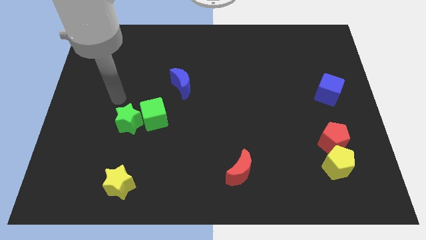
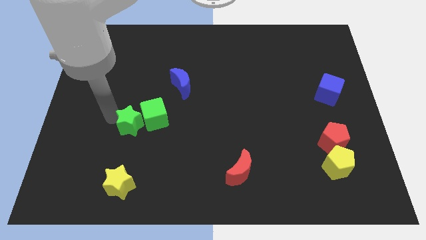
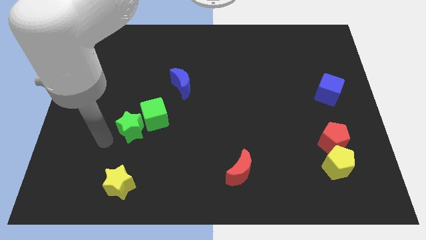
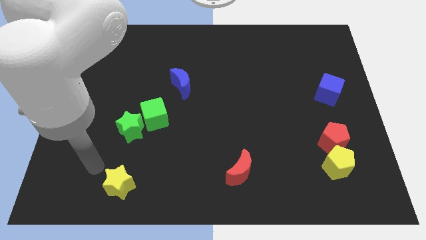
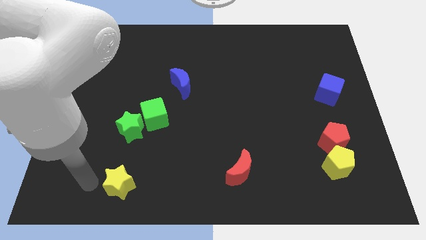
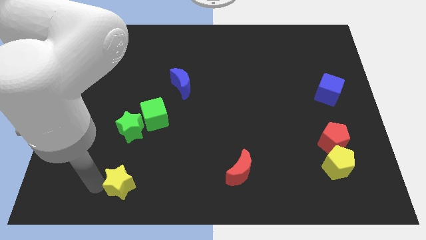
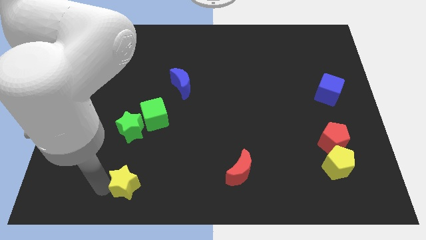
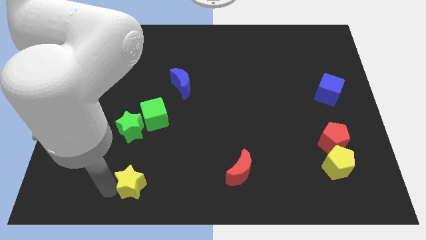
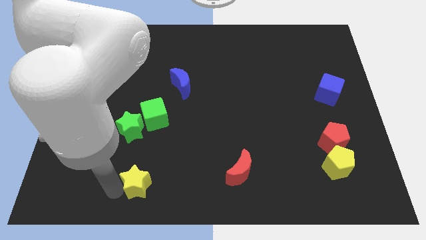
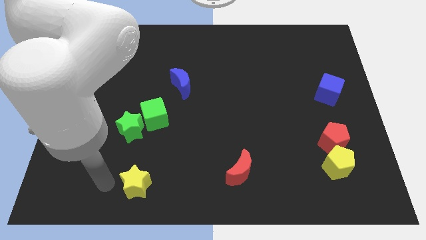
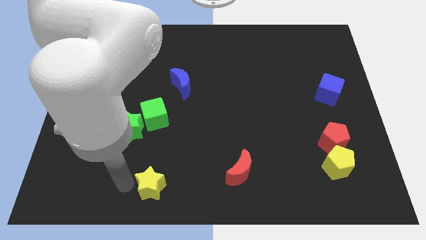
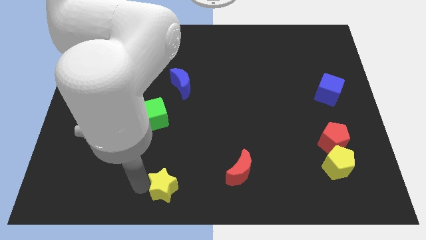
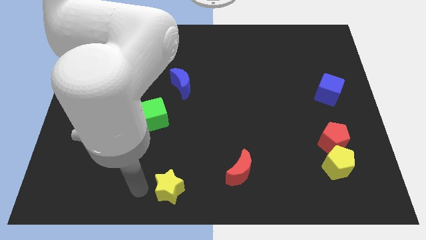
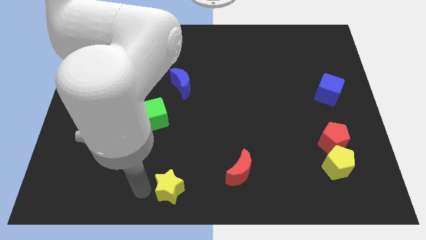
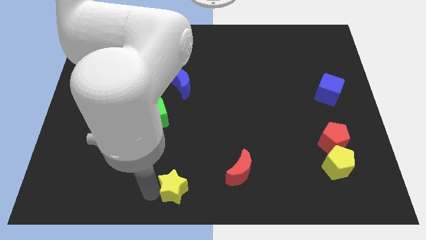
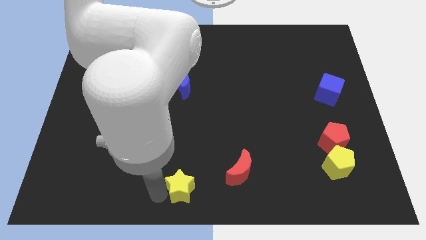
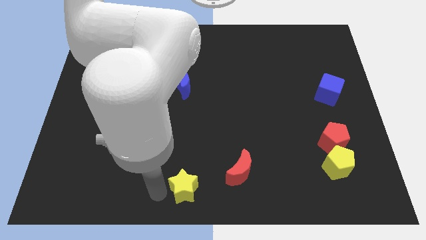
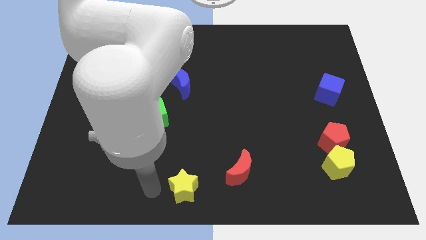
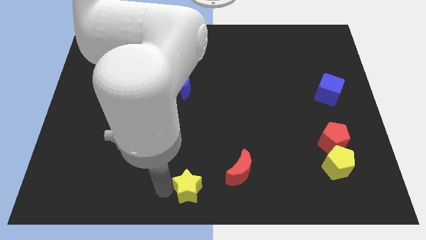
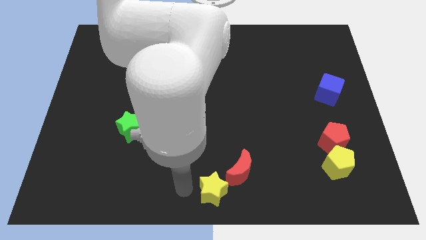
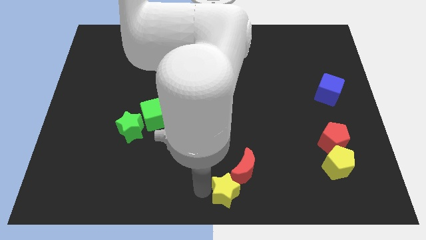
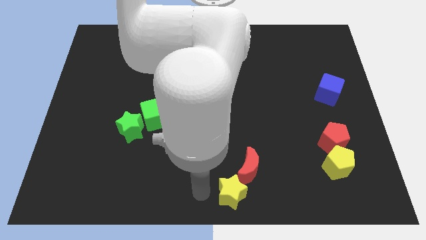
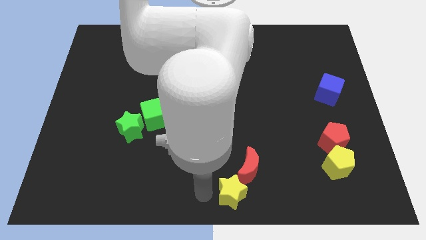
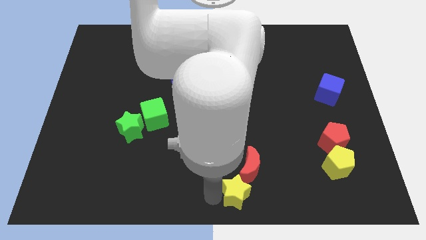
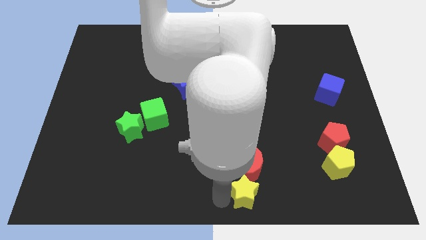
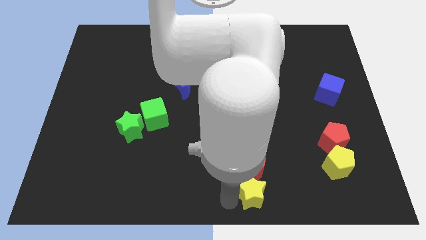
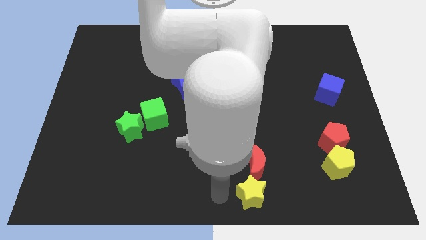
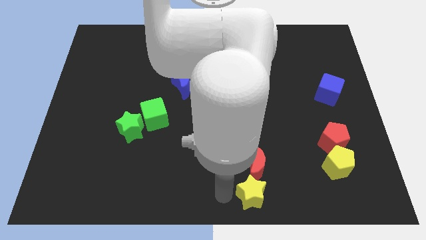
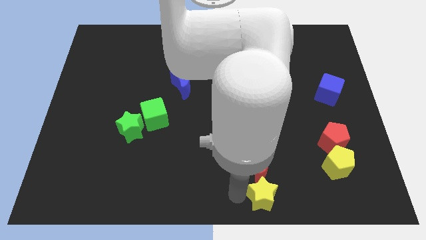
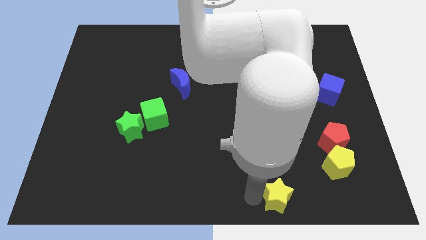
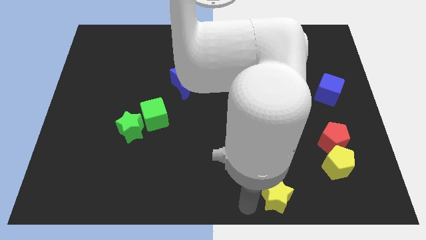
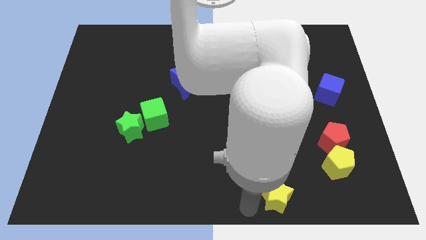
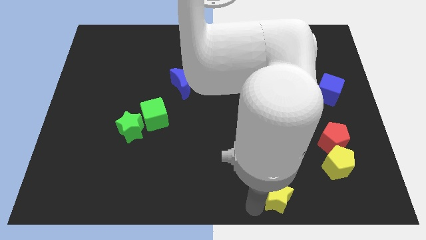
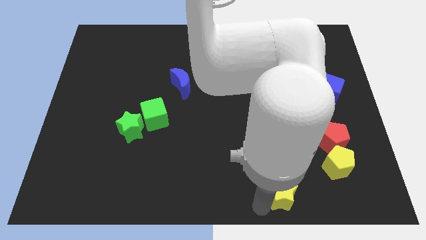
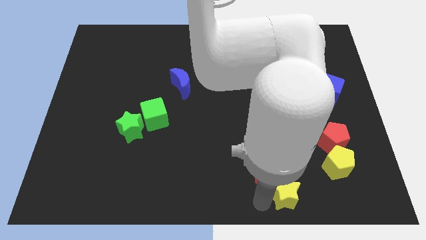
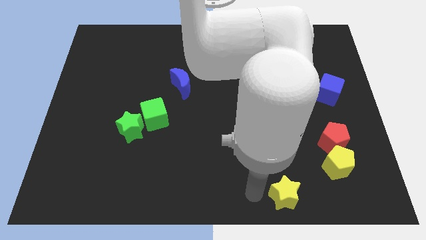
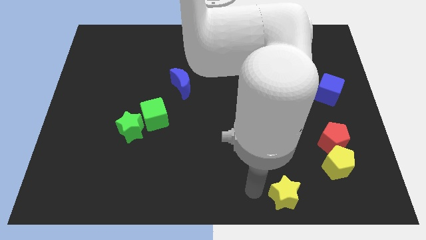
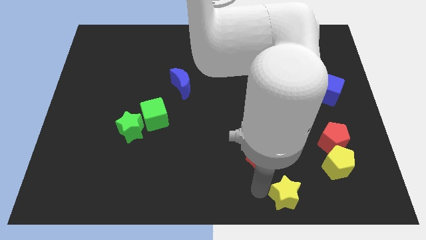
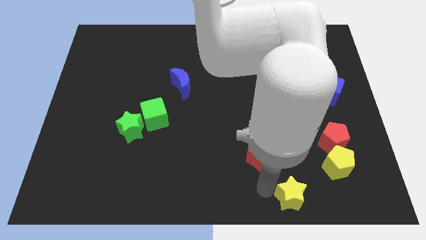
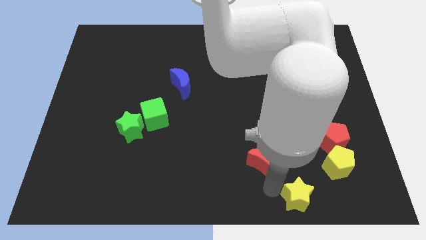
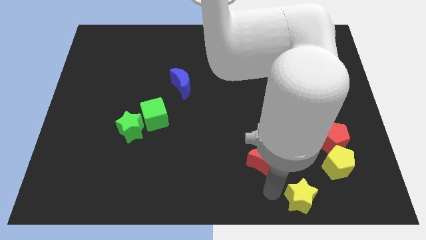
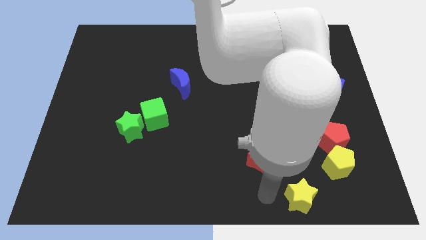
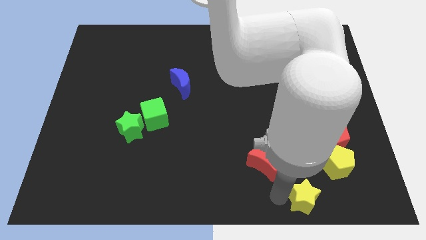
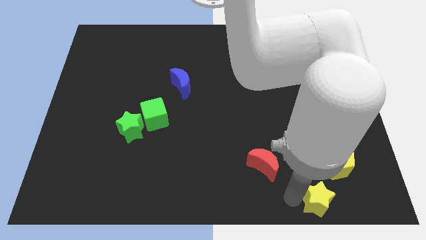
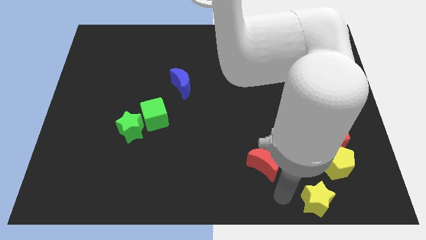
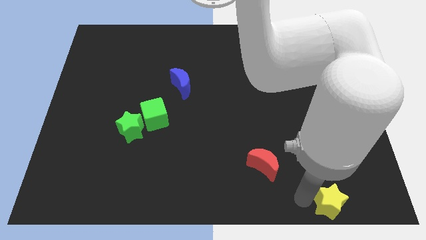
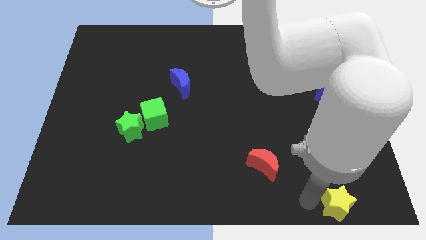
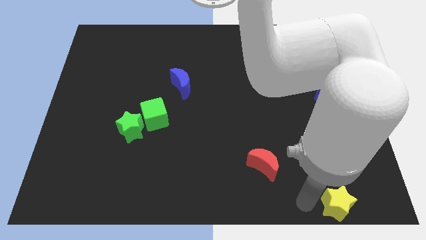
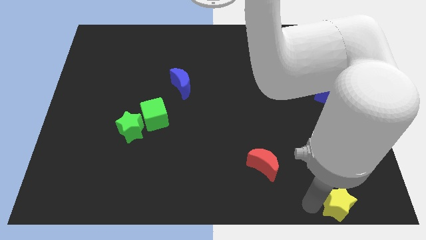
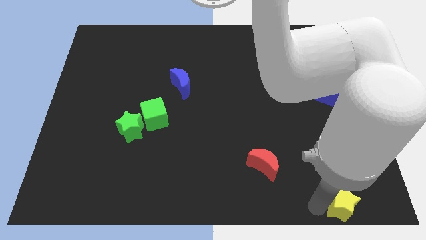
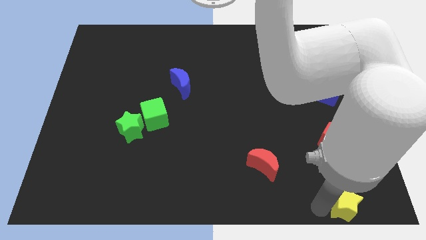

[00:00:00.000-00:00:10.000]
push the yellow star to the bottom right
